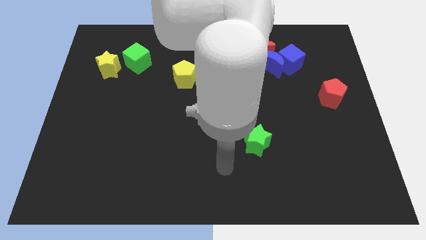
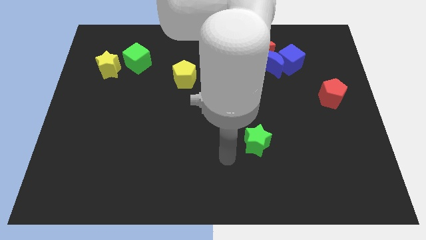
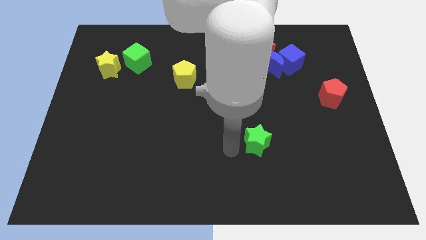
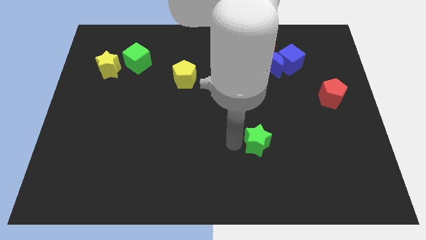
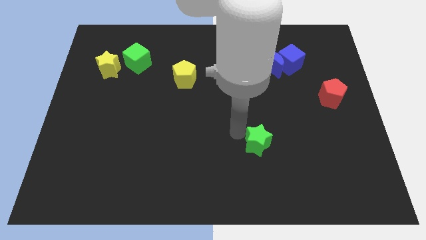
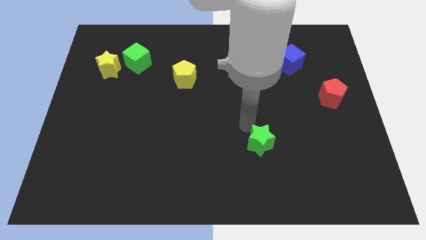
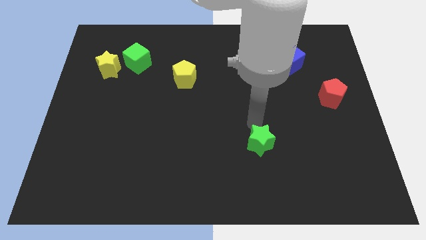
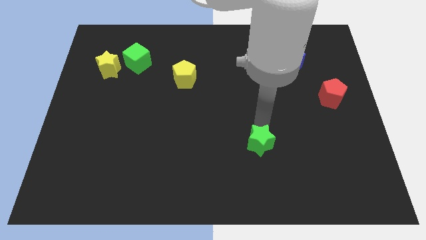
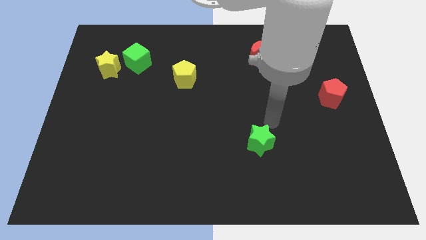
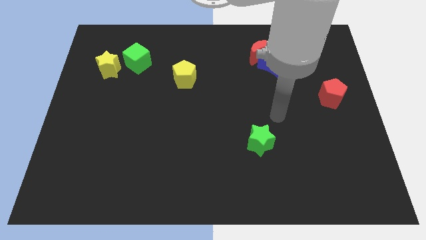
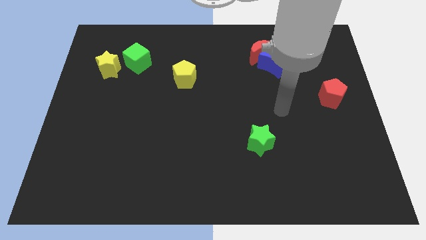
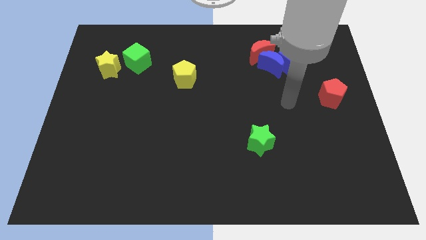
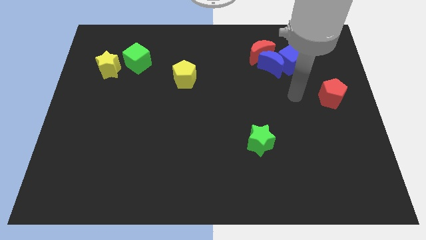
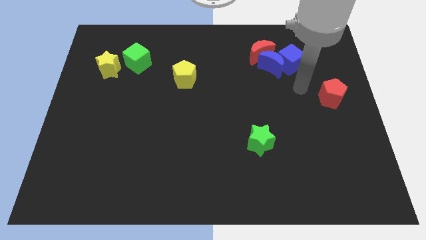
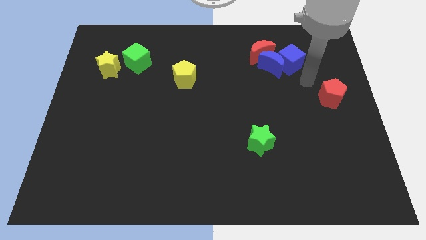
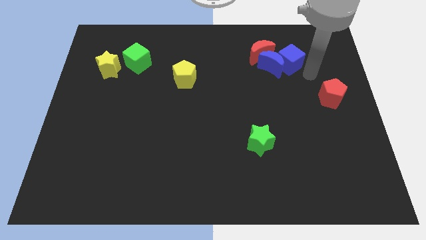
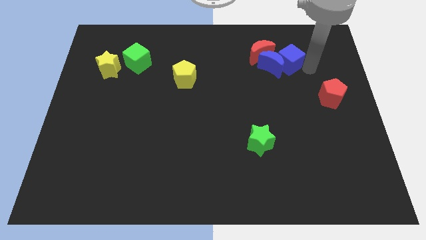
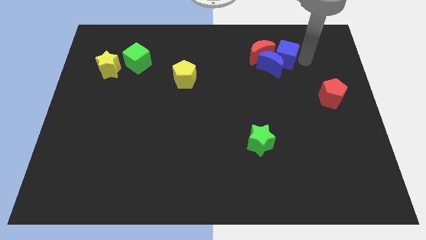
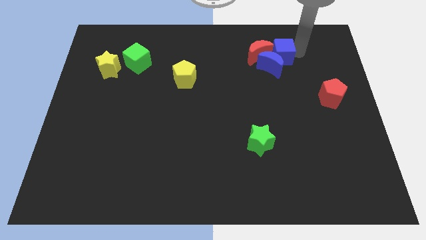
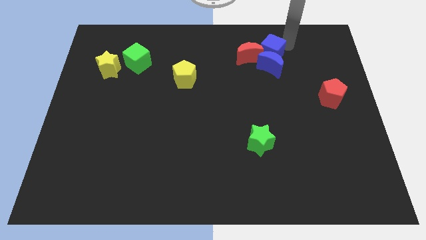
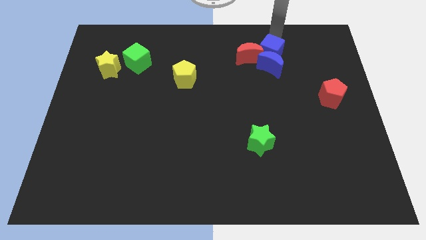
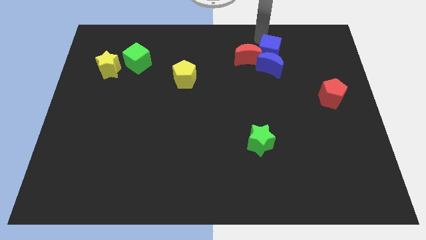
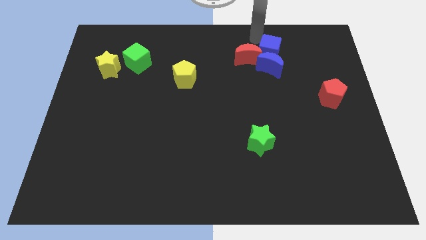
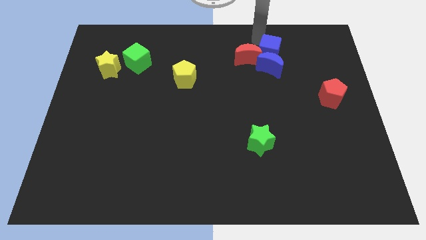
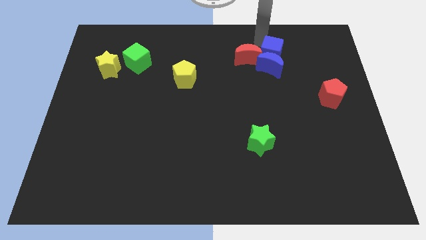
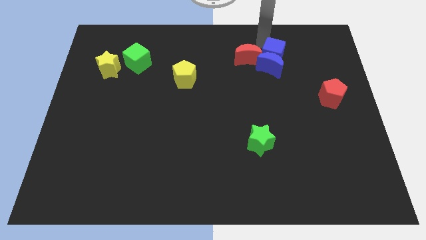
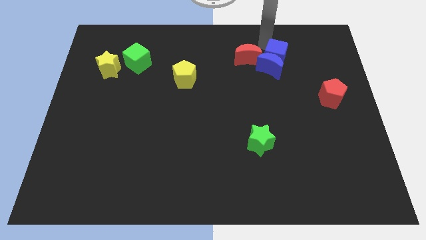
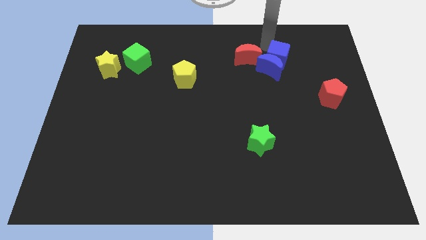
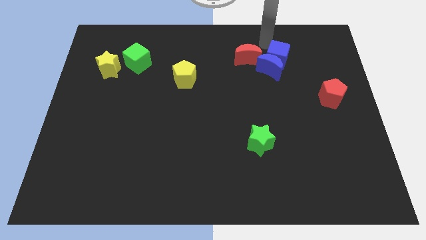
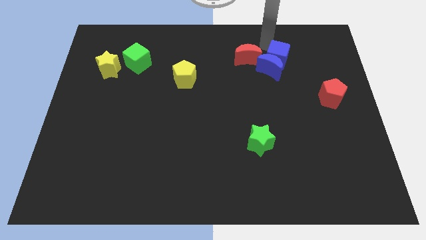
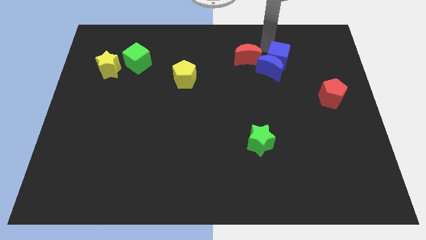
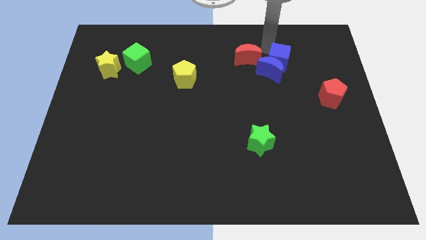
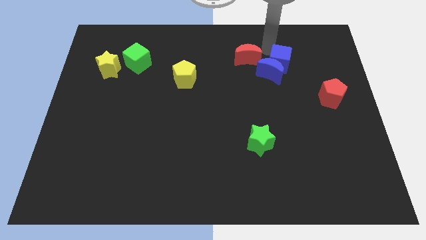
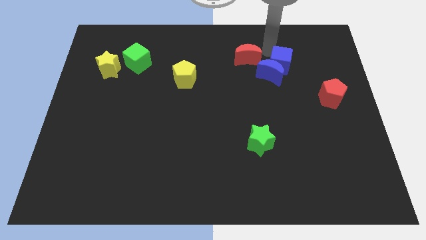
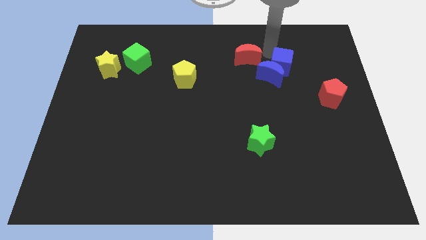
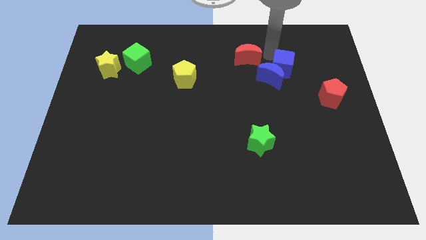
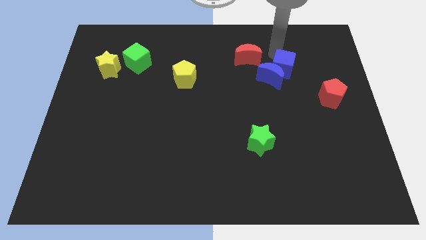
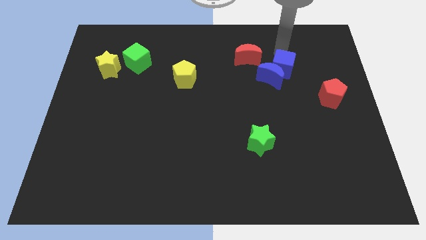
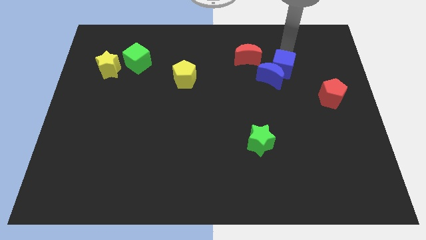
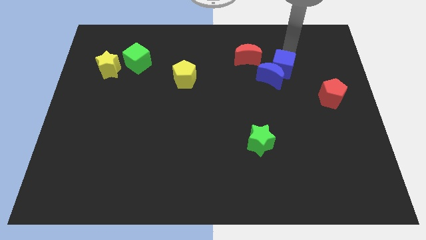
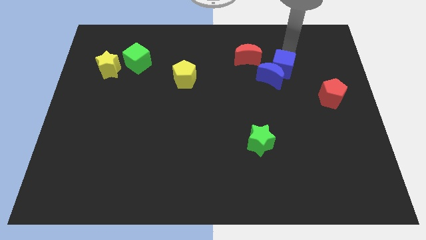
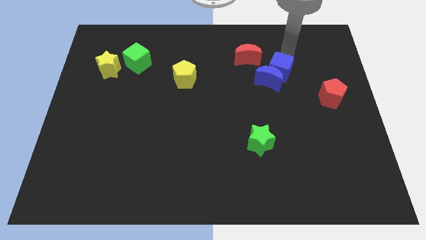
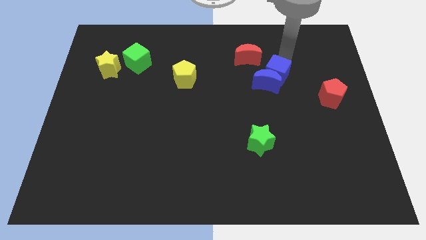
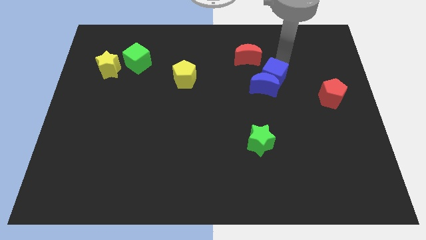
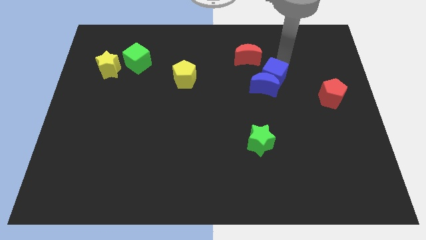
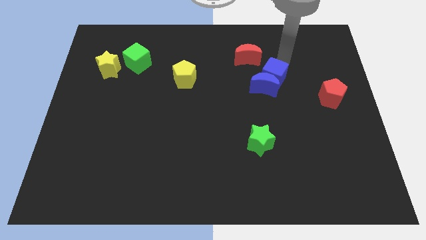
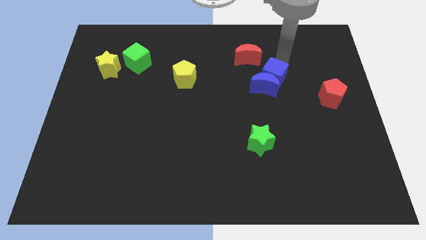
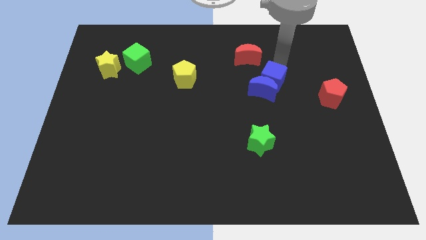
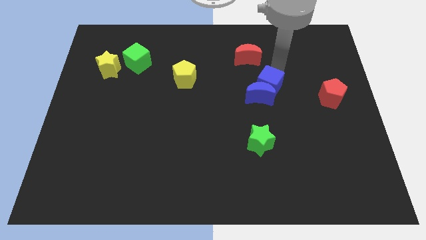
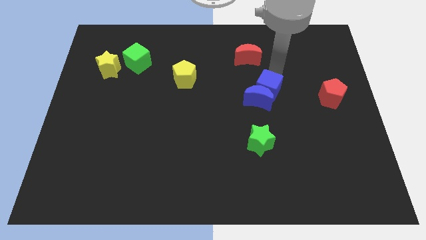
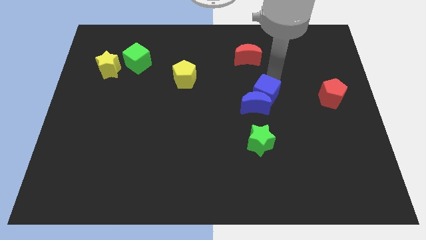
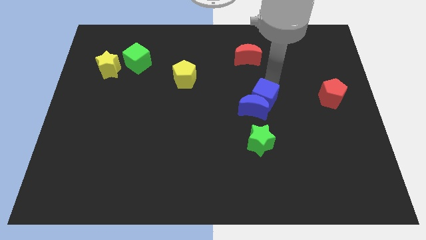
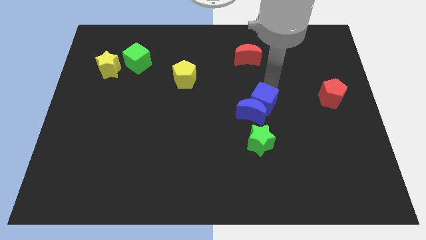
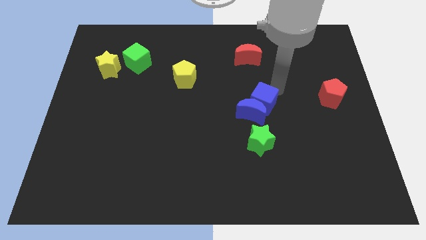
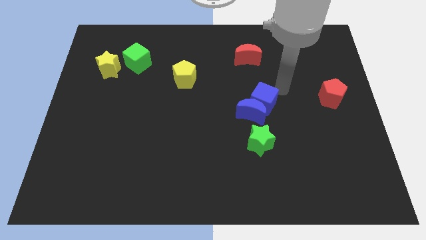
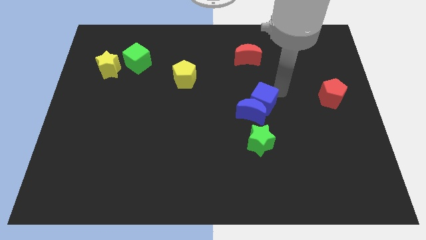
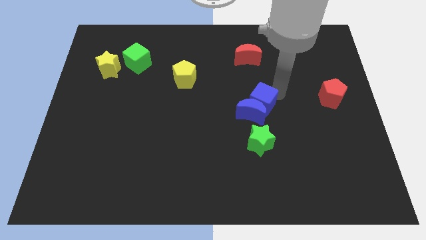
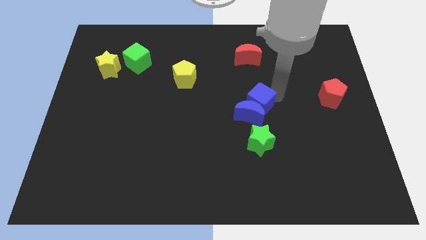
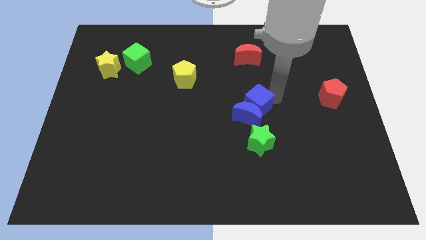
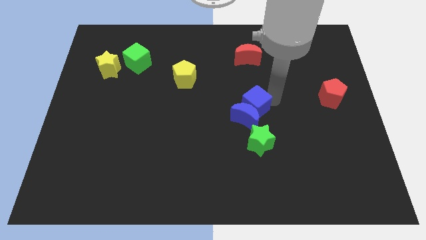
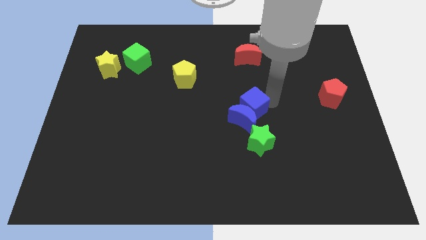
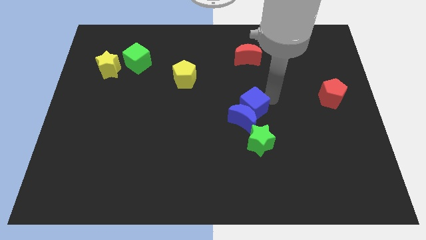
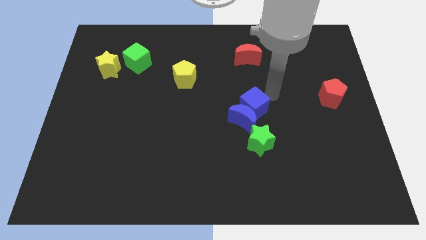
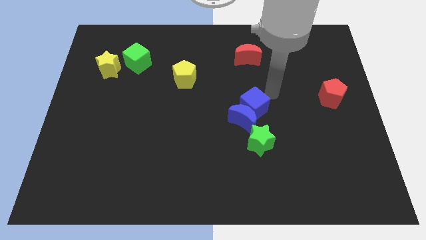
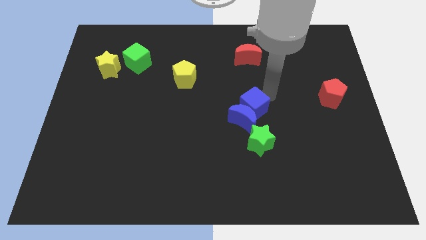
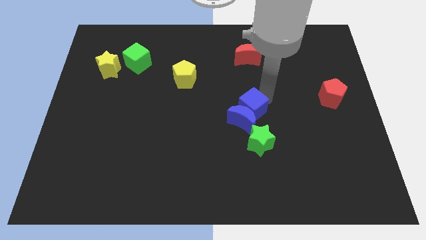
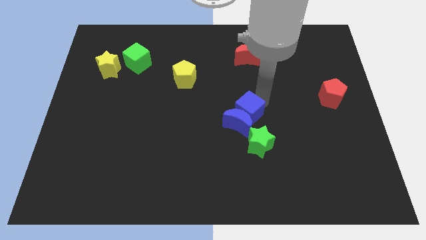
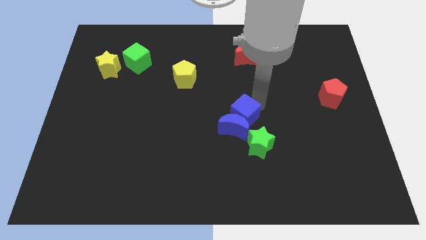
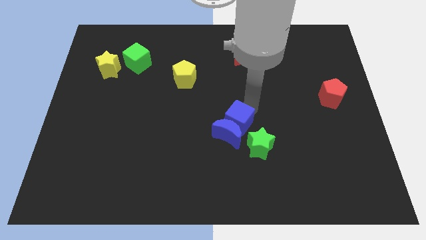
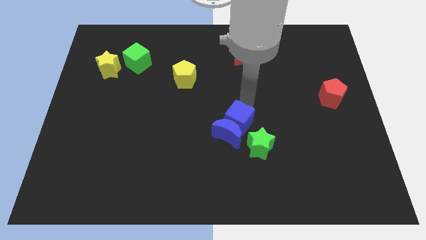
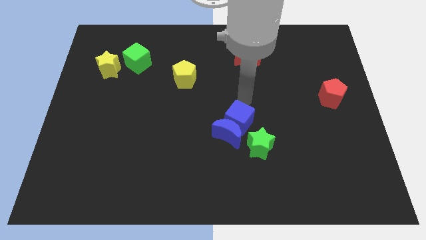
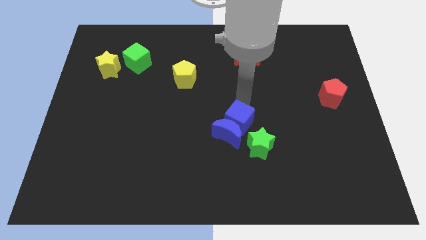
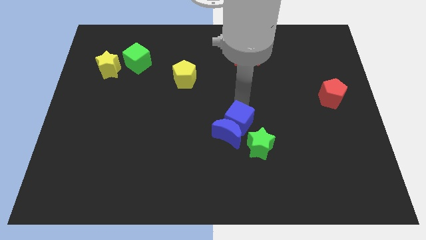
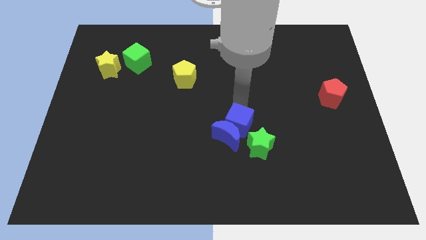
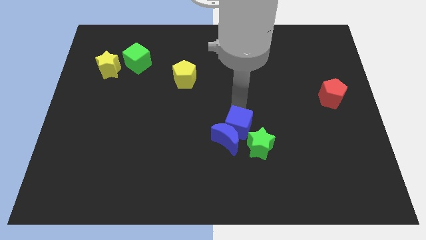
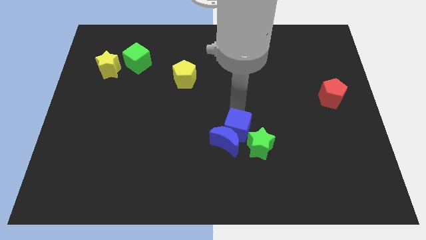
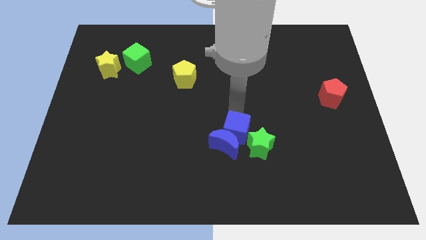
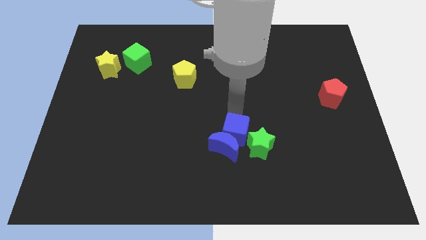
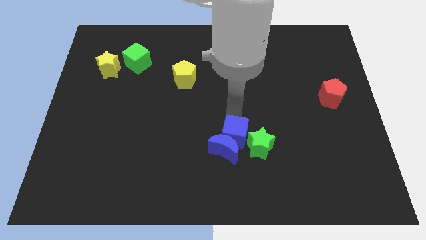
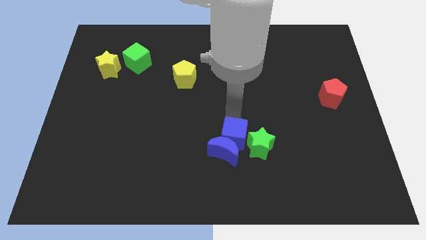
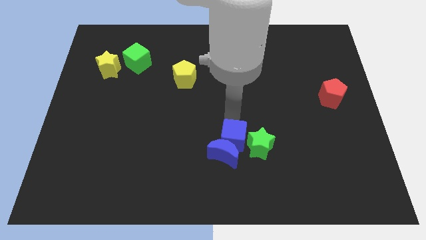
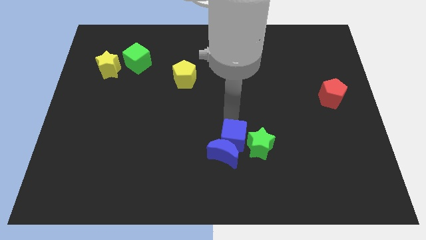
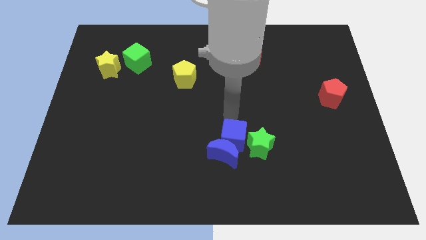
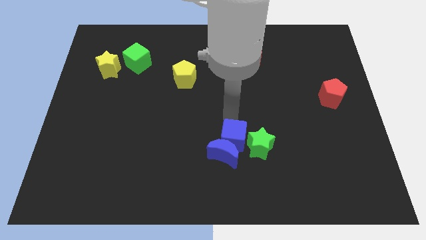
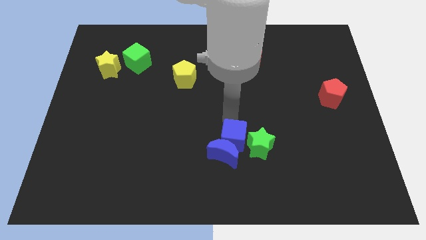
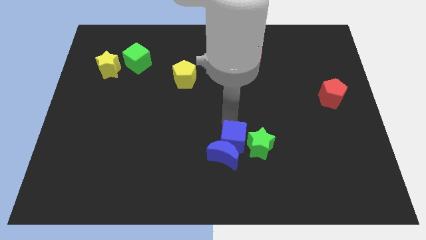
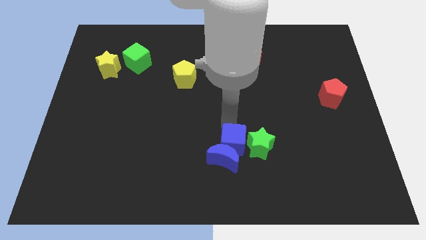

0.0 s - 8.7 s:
push the blue cube to the bottom left side of the green star
